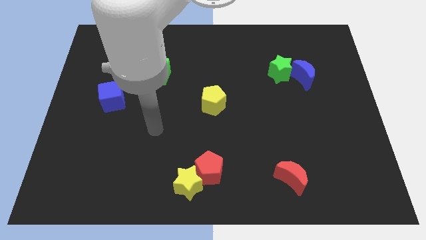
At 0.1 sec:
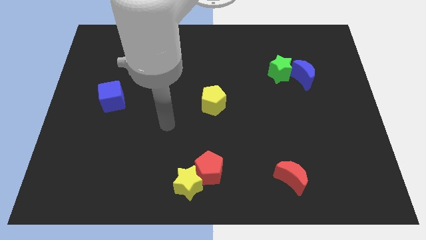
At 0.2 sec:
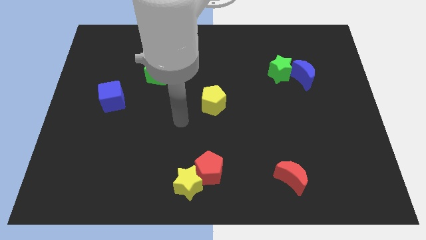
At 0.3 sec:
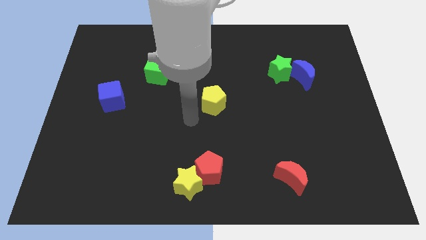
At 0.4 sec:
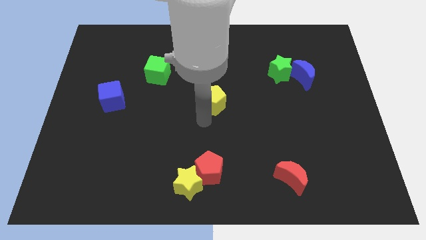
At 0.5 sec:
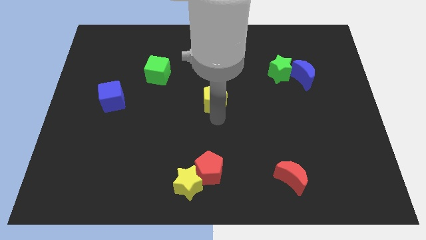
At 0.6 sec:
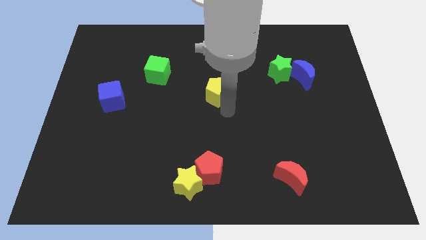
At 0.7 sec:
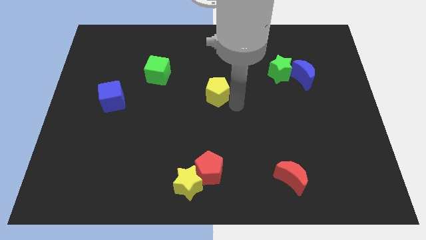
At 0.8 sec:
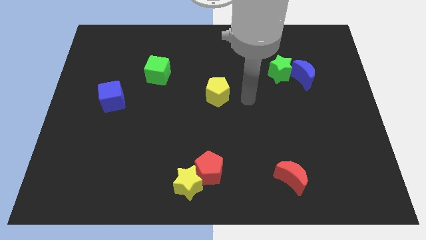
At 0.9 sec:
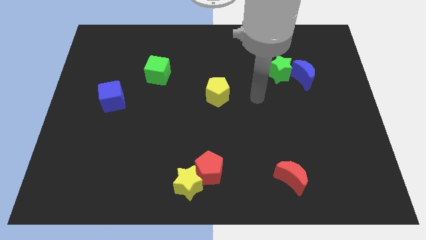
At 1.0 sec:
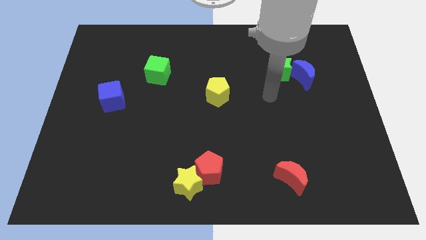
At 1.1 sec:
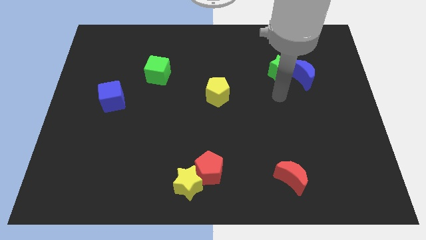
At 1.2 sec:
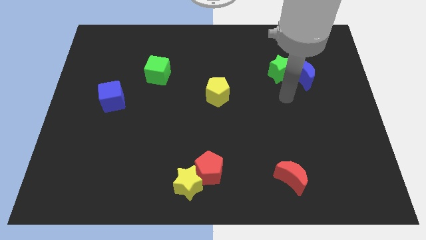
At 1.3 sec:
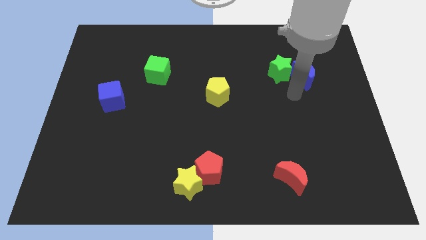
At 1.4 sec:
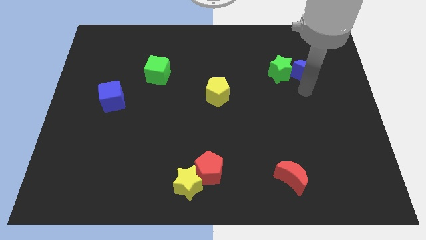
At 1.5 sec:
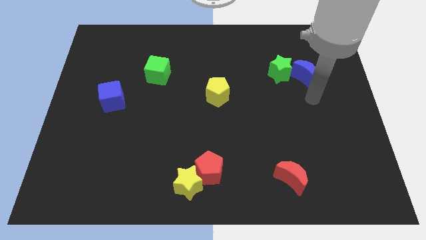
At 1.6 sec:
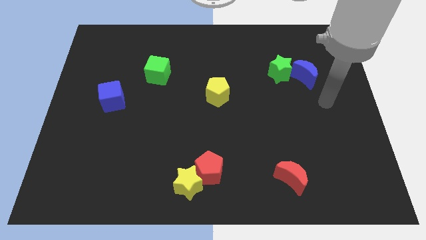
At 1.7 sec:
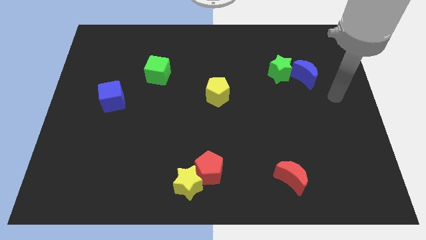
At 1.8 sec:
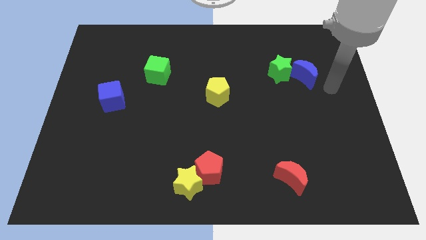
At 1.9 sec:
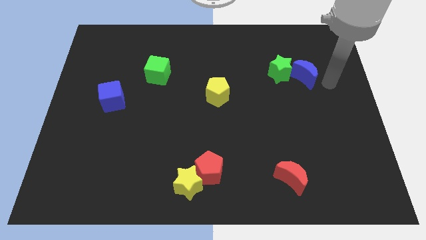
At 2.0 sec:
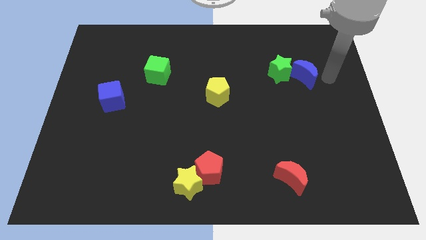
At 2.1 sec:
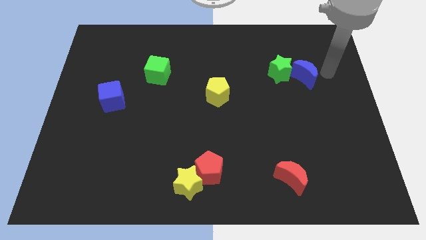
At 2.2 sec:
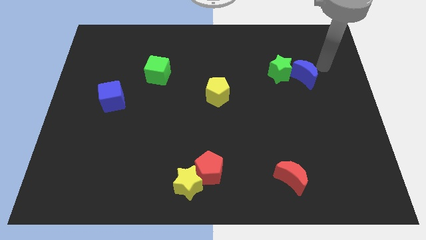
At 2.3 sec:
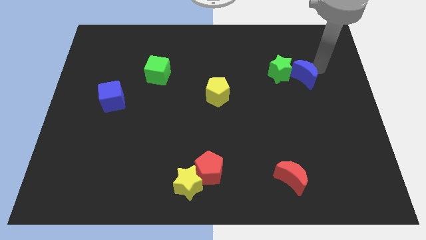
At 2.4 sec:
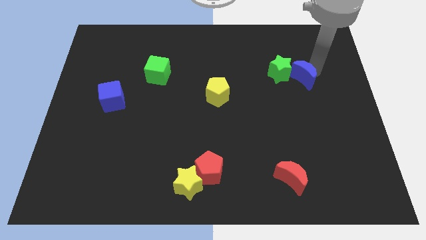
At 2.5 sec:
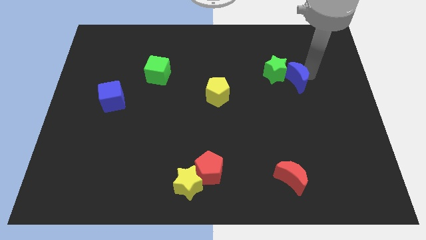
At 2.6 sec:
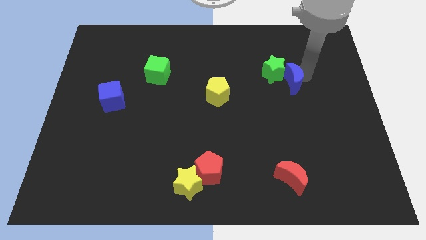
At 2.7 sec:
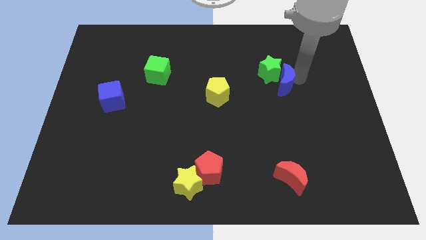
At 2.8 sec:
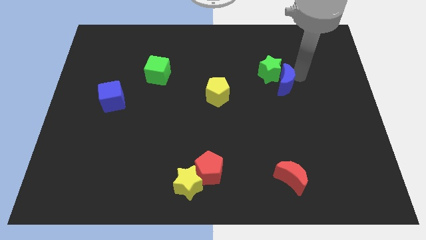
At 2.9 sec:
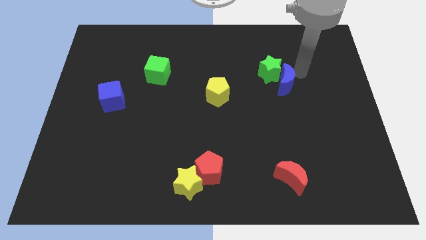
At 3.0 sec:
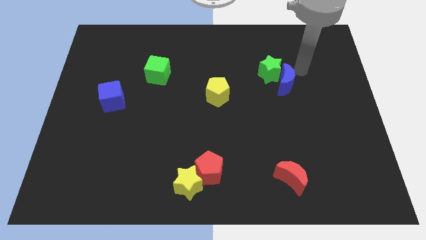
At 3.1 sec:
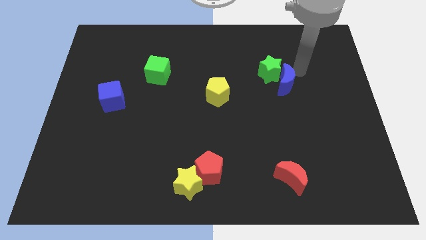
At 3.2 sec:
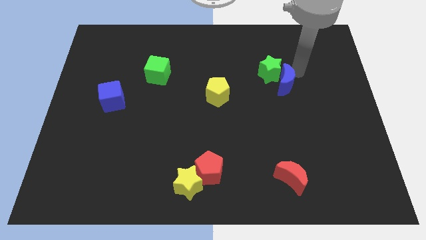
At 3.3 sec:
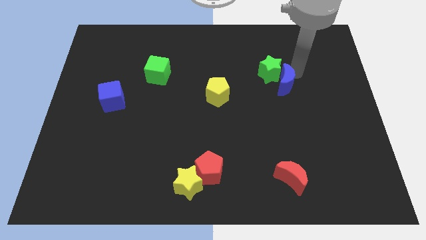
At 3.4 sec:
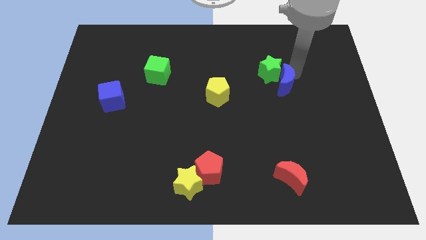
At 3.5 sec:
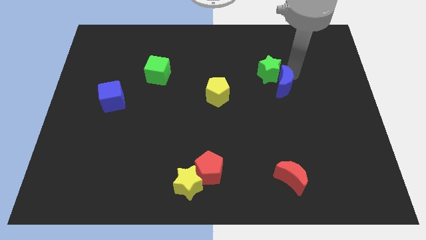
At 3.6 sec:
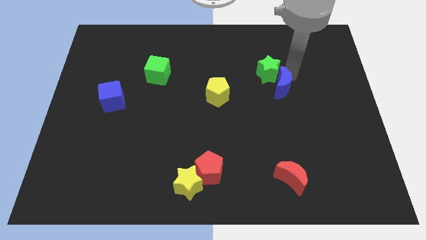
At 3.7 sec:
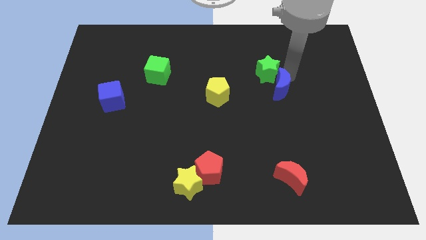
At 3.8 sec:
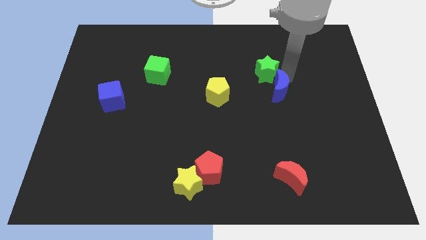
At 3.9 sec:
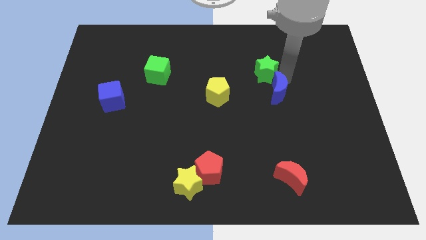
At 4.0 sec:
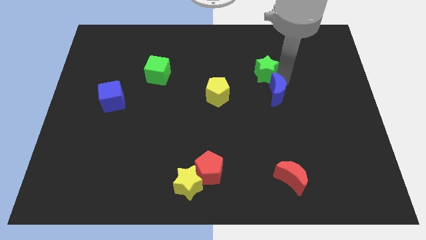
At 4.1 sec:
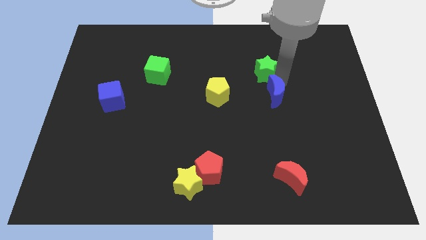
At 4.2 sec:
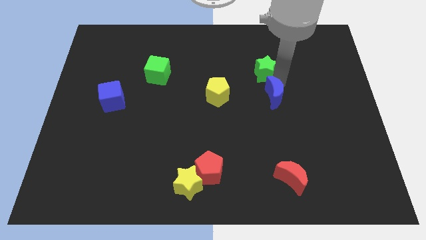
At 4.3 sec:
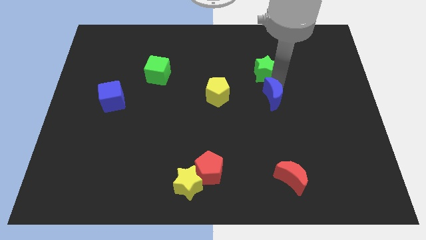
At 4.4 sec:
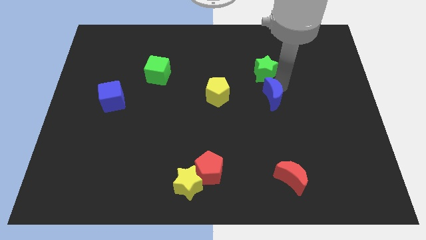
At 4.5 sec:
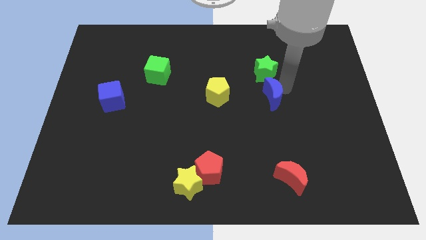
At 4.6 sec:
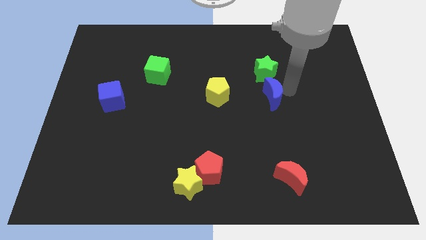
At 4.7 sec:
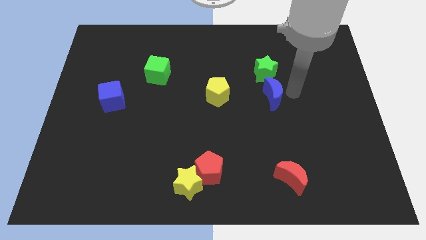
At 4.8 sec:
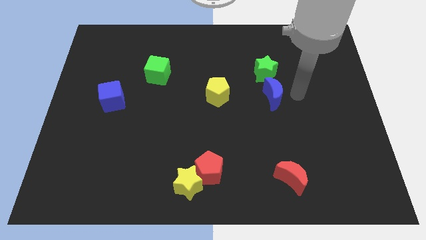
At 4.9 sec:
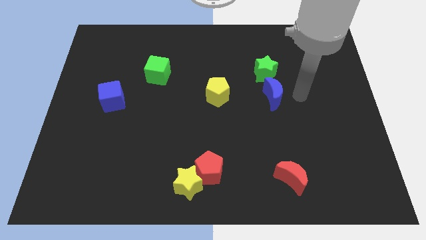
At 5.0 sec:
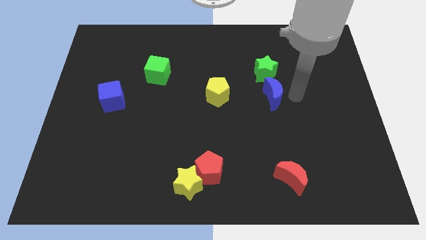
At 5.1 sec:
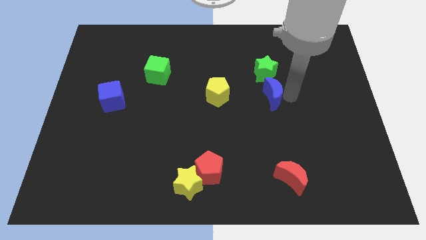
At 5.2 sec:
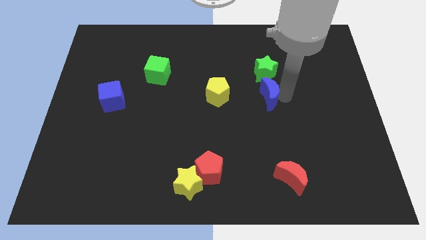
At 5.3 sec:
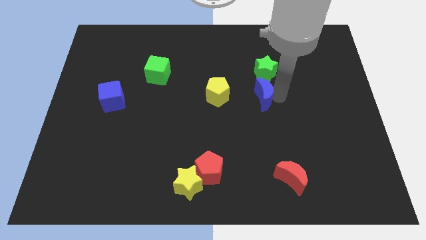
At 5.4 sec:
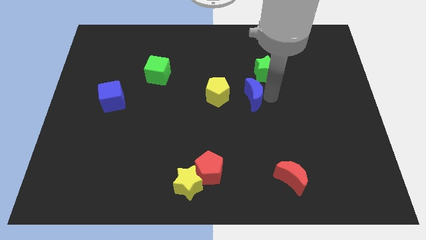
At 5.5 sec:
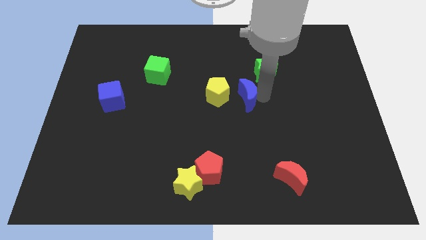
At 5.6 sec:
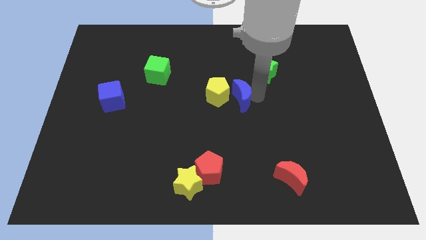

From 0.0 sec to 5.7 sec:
put the blue moon close to the yellow pentagon

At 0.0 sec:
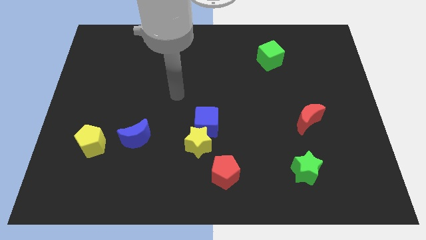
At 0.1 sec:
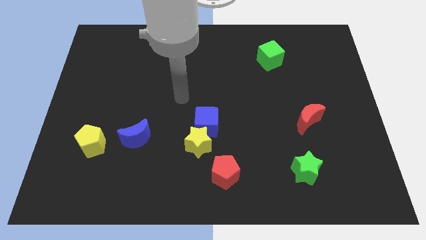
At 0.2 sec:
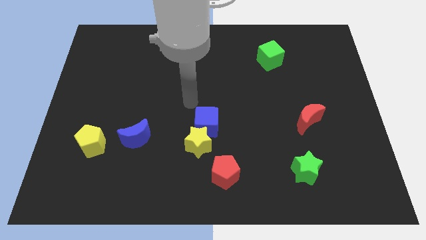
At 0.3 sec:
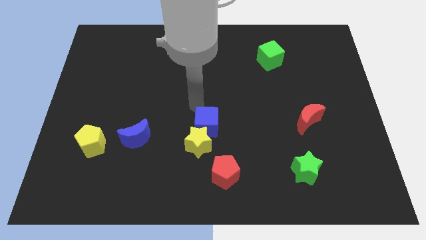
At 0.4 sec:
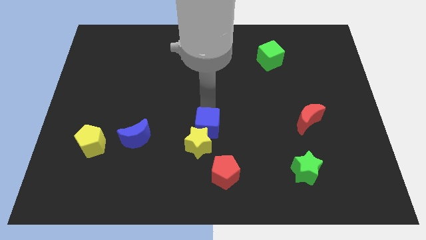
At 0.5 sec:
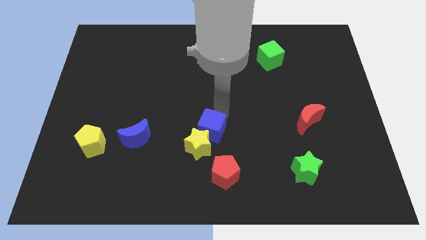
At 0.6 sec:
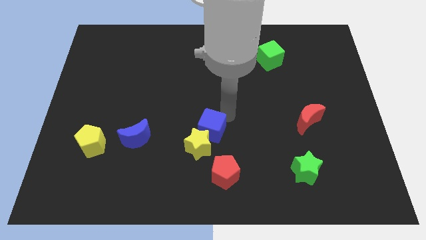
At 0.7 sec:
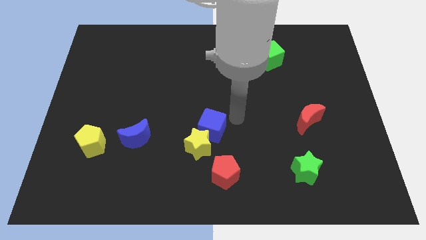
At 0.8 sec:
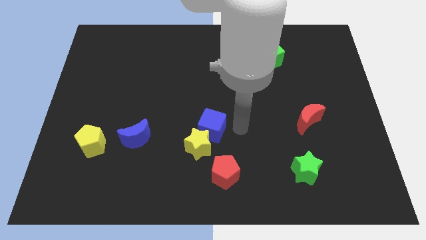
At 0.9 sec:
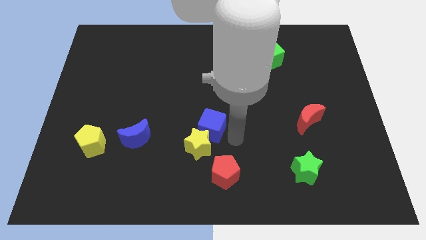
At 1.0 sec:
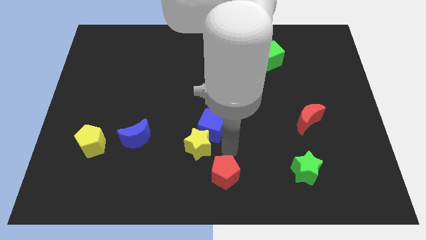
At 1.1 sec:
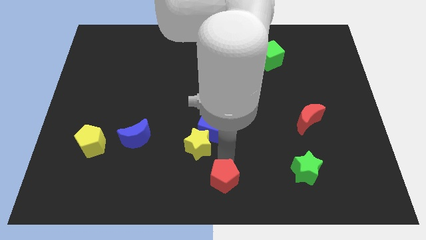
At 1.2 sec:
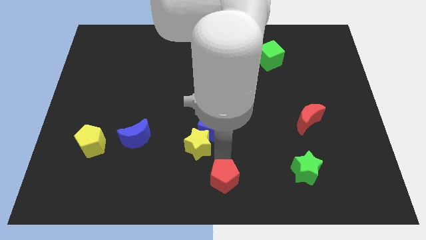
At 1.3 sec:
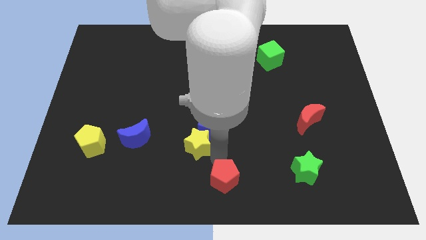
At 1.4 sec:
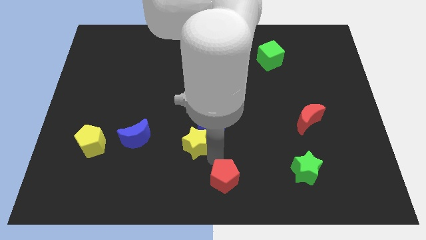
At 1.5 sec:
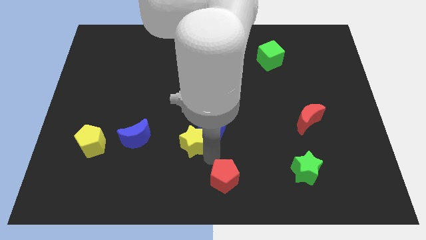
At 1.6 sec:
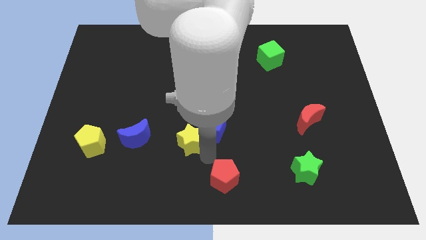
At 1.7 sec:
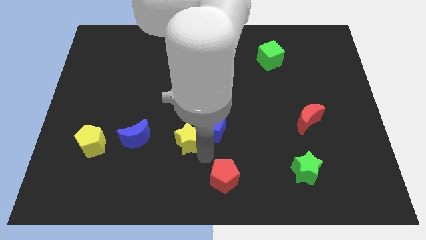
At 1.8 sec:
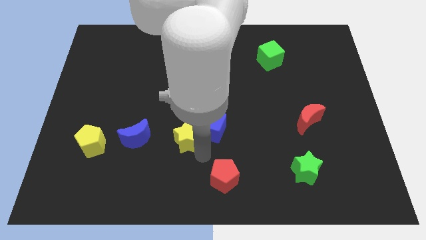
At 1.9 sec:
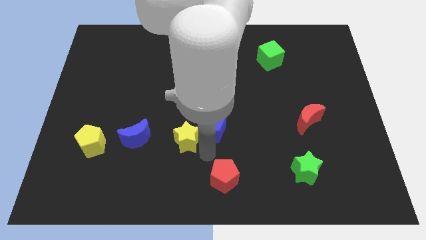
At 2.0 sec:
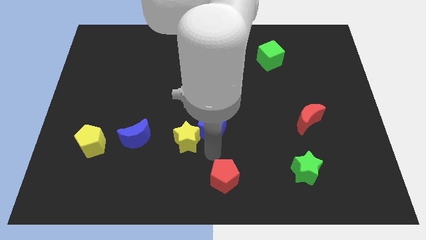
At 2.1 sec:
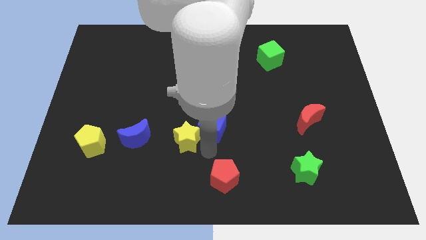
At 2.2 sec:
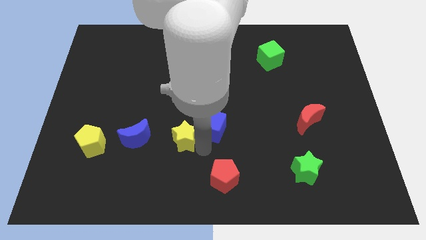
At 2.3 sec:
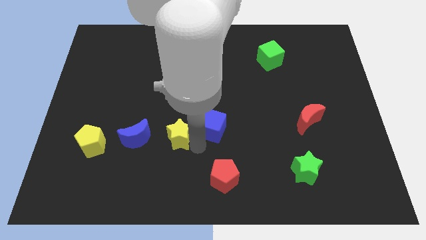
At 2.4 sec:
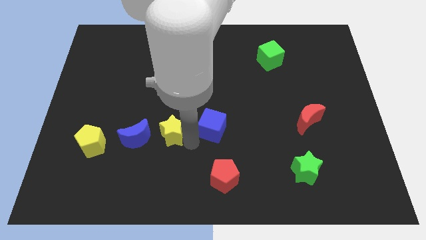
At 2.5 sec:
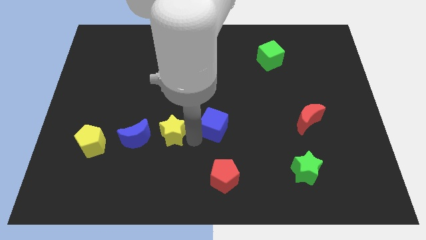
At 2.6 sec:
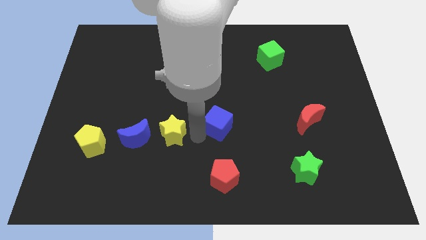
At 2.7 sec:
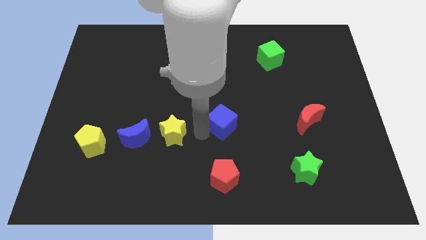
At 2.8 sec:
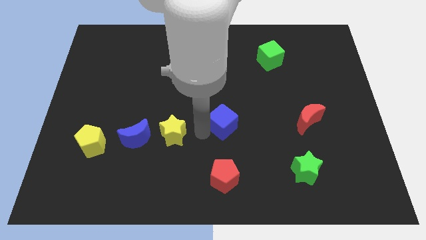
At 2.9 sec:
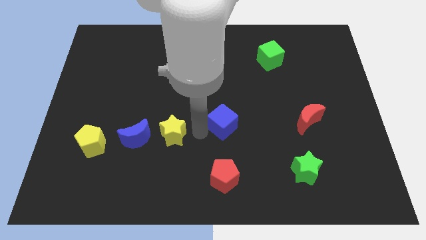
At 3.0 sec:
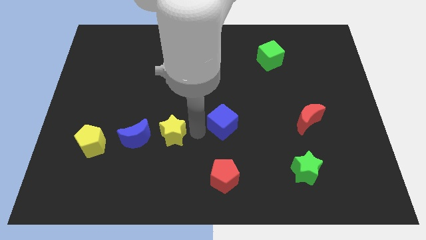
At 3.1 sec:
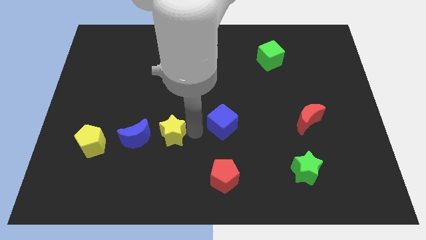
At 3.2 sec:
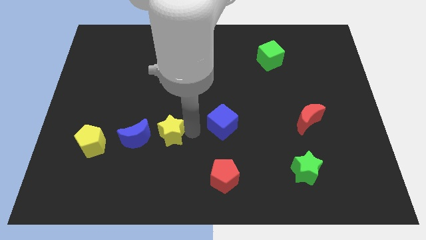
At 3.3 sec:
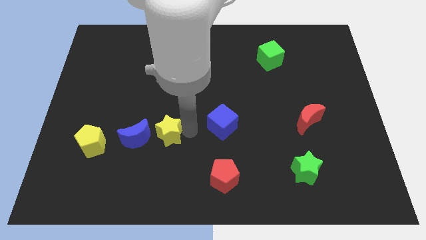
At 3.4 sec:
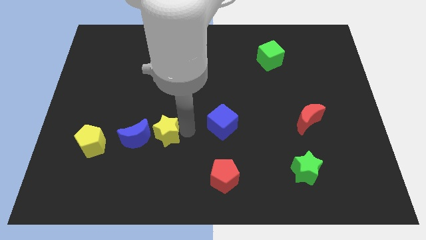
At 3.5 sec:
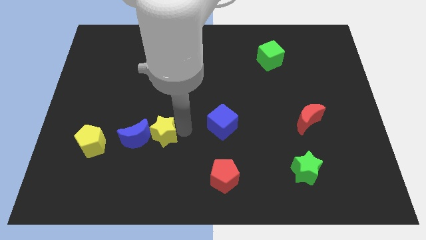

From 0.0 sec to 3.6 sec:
put the yellow star towards the blue moon
